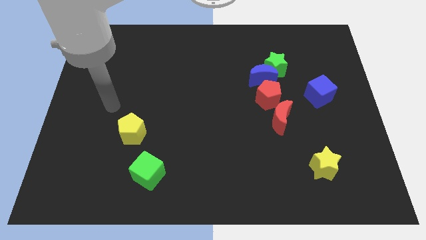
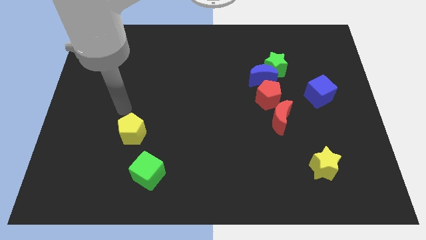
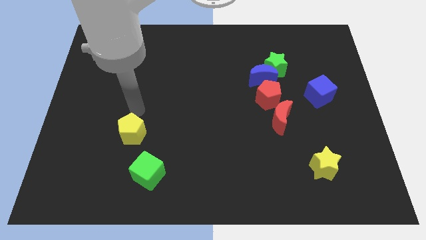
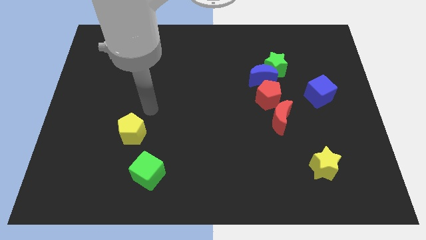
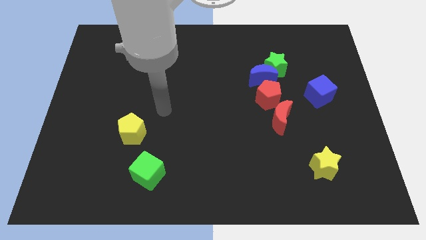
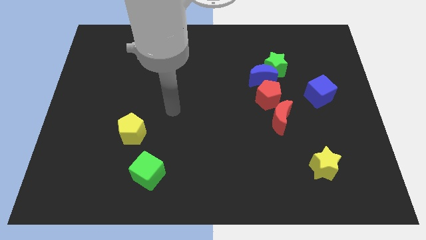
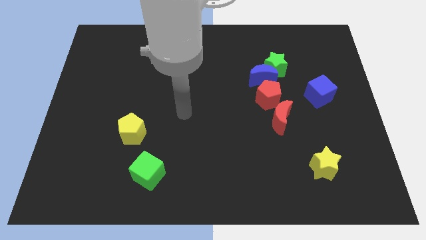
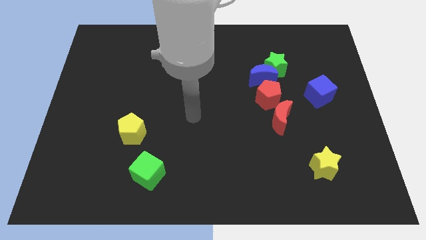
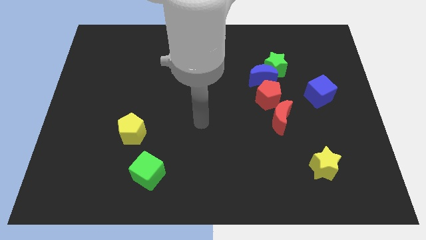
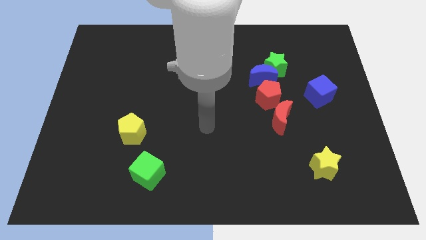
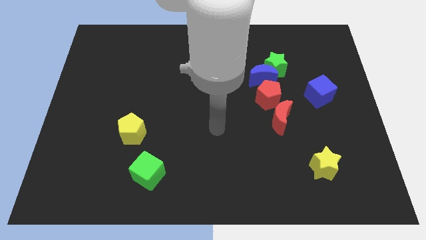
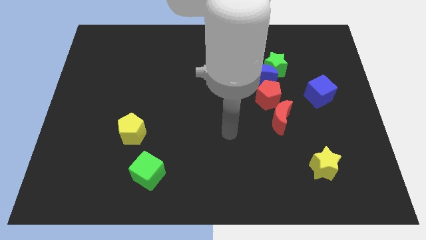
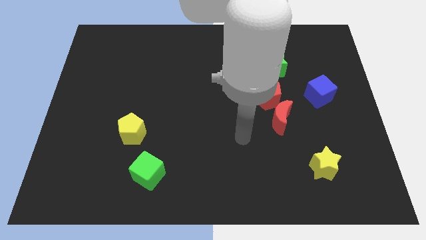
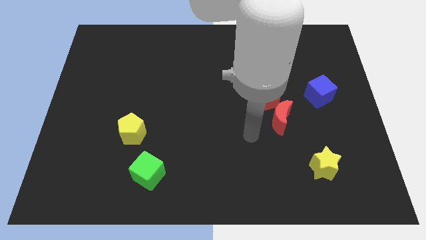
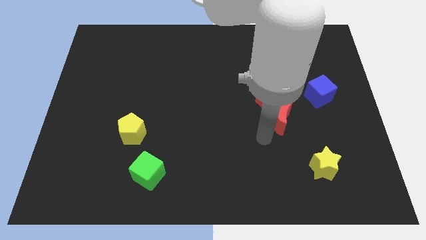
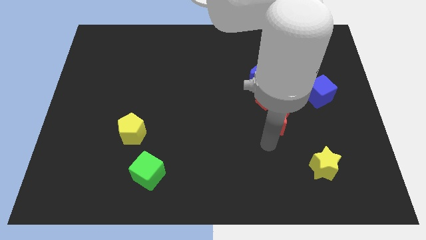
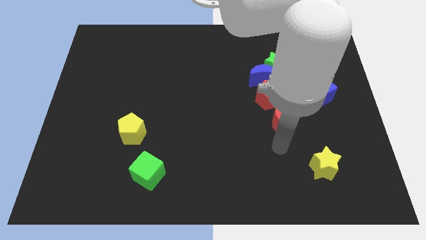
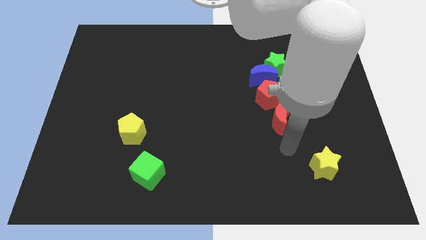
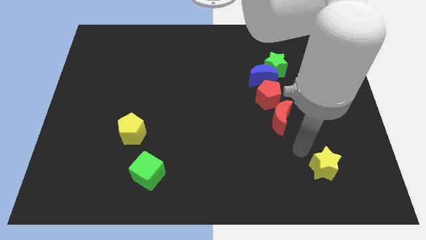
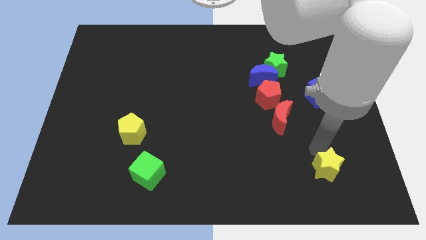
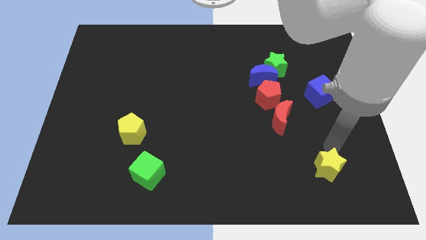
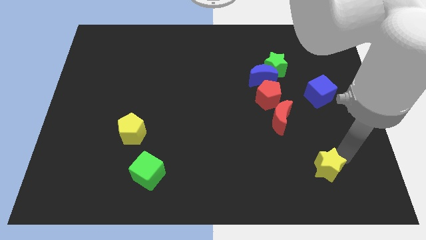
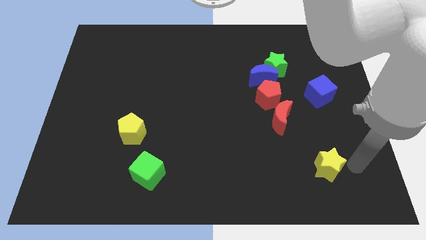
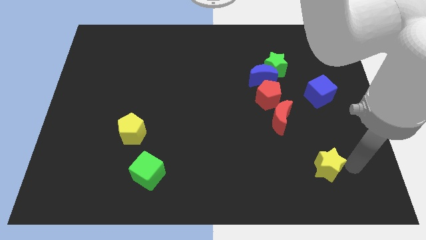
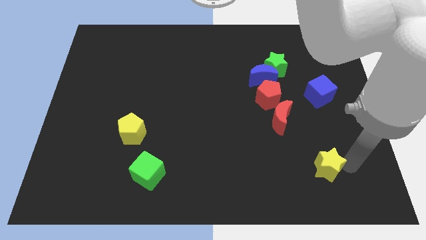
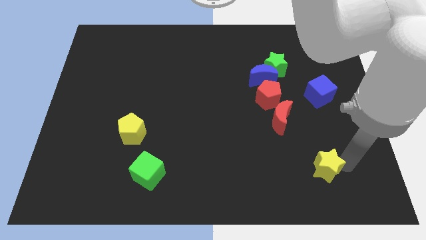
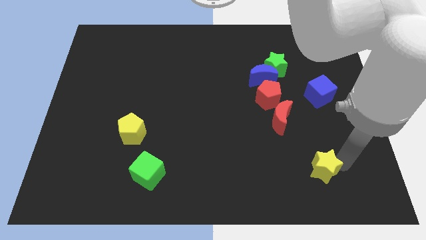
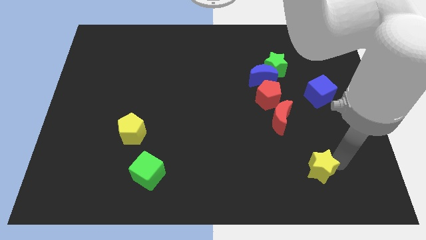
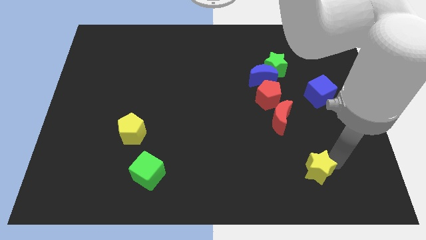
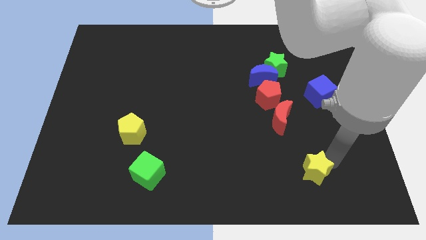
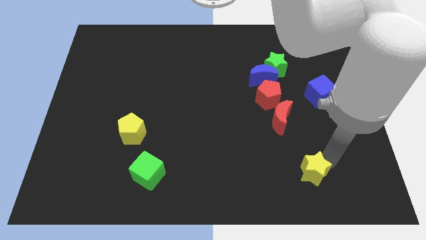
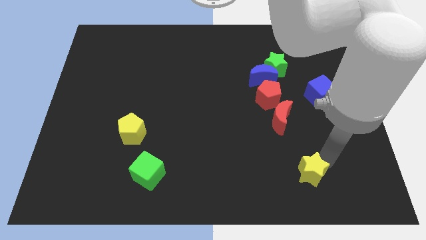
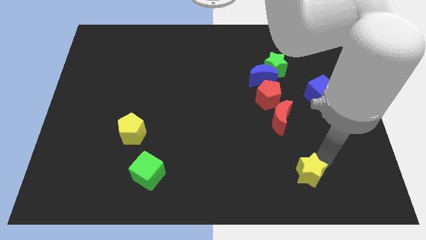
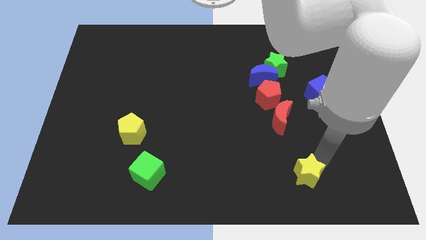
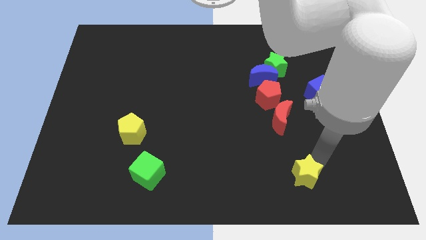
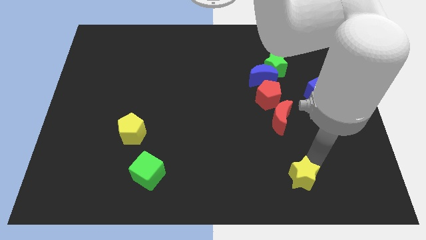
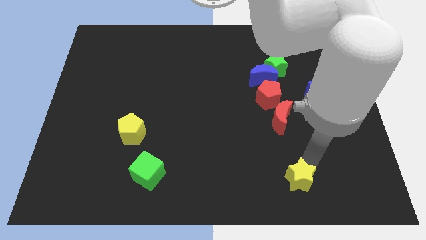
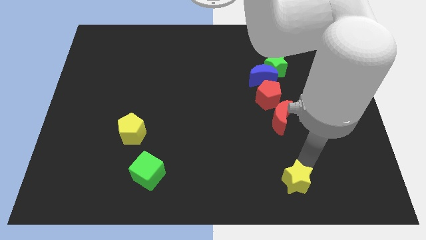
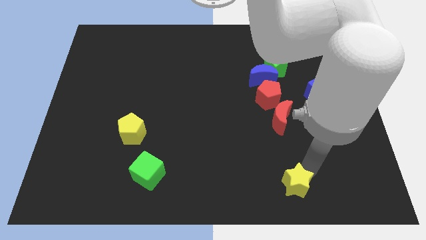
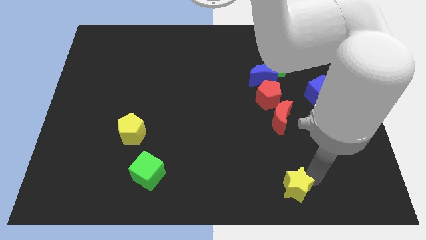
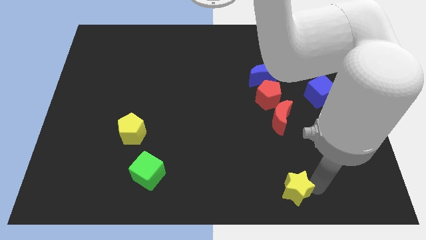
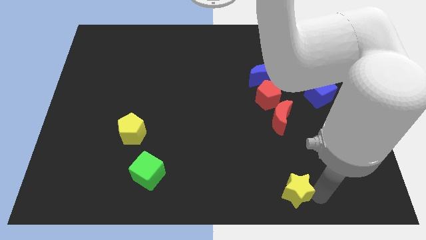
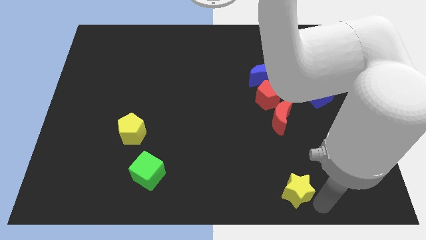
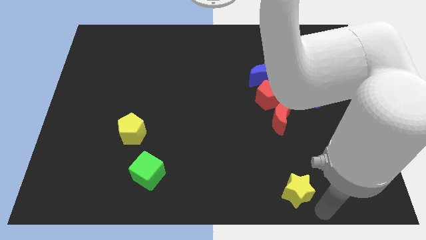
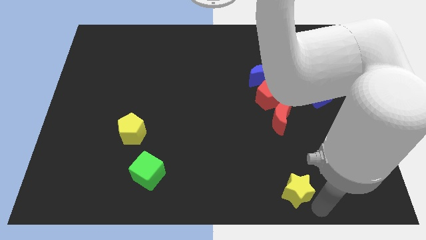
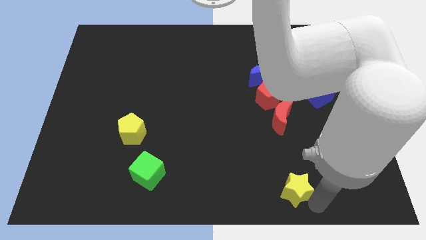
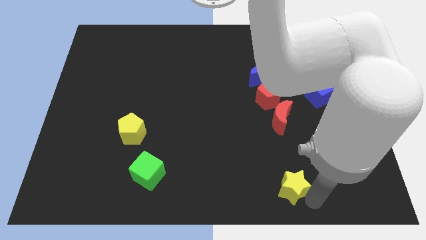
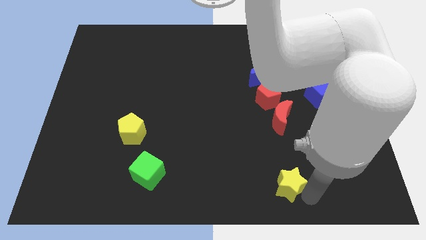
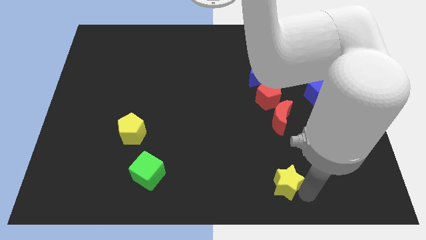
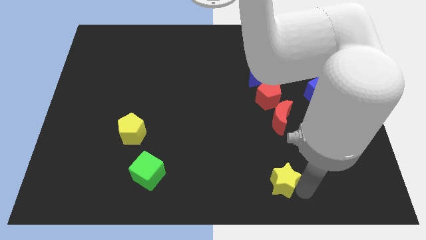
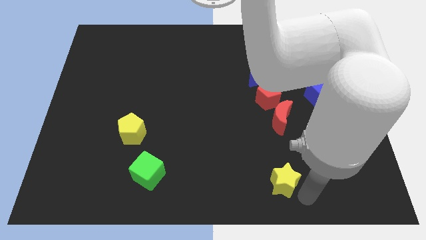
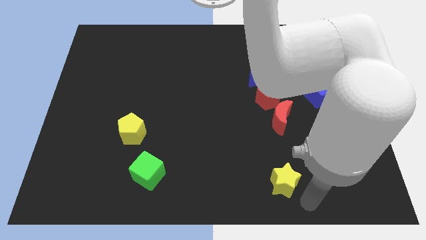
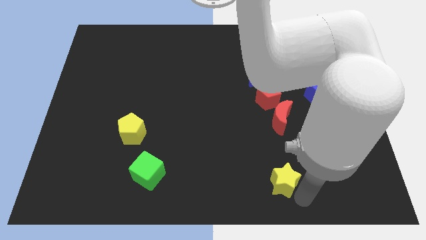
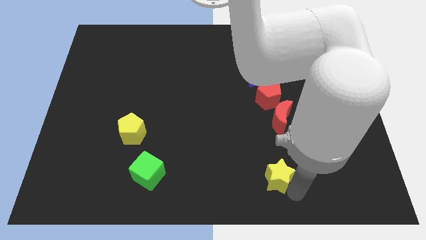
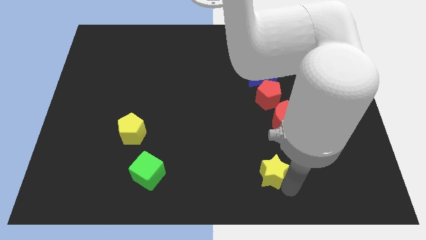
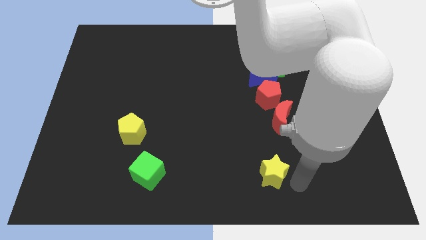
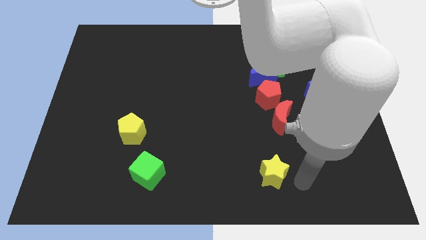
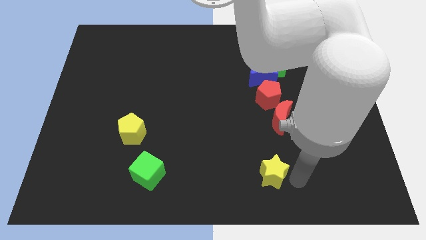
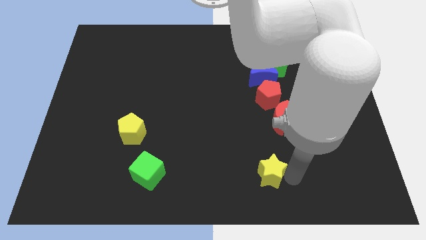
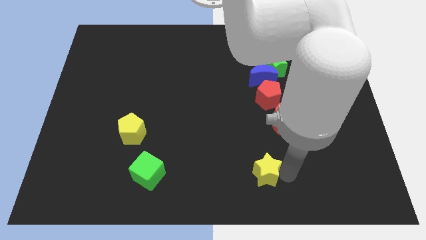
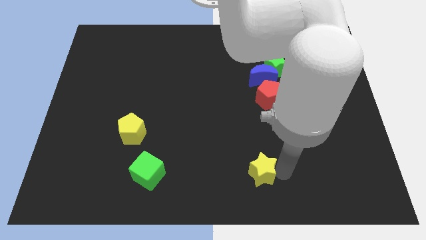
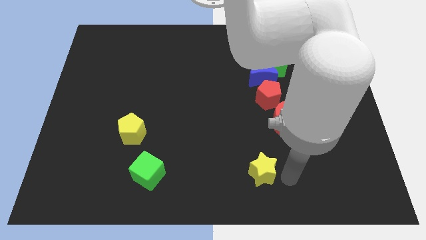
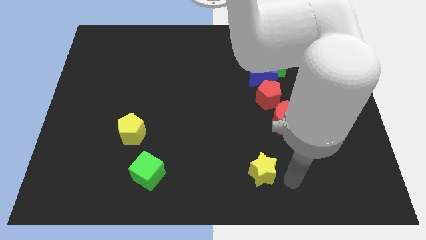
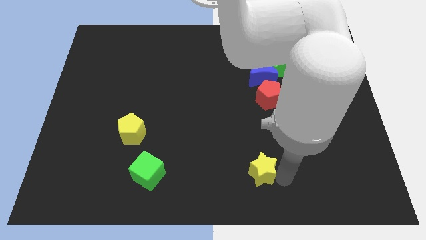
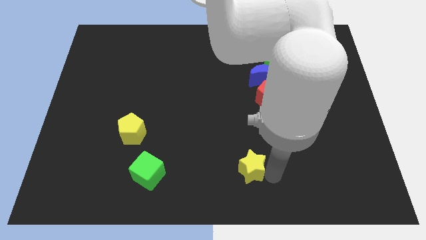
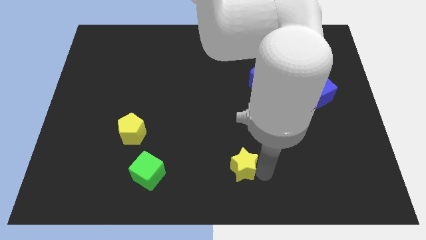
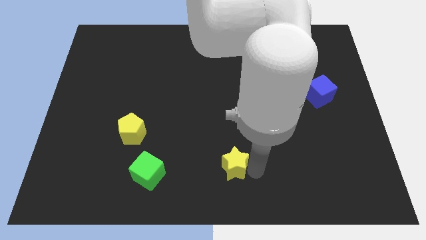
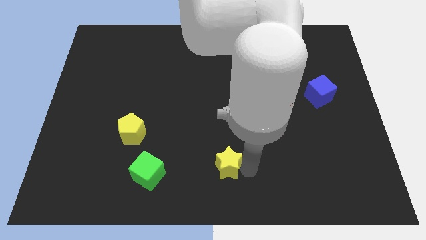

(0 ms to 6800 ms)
push the yellow star left

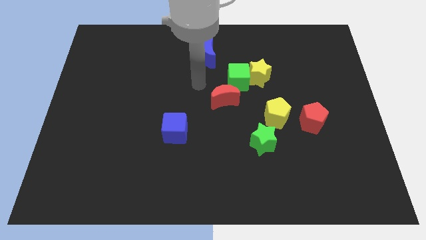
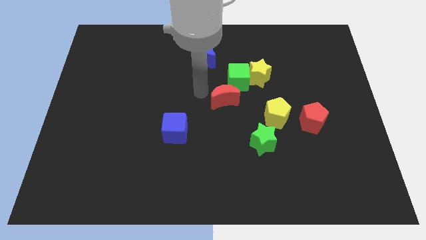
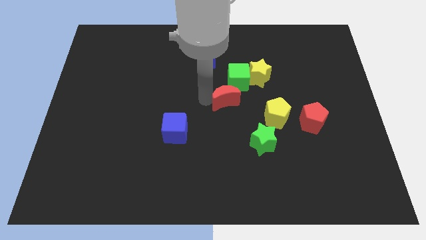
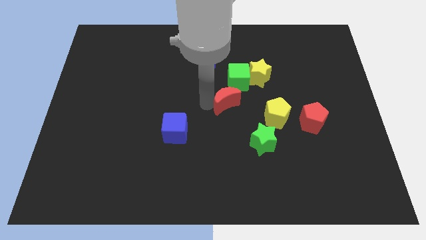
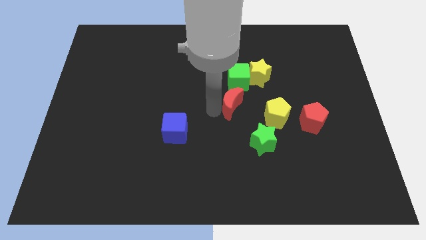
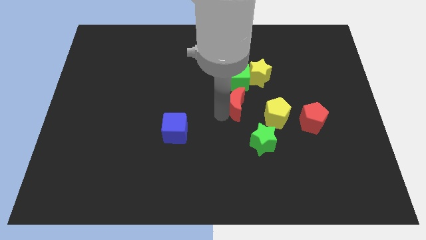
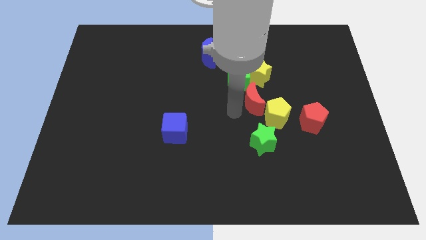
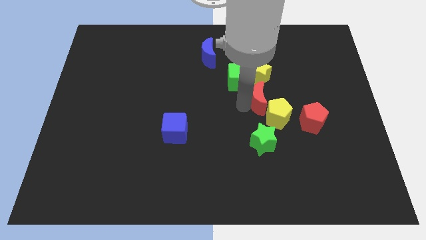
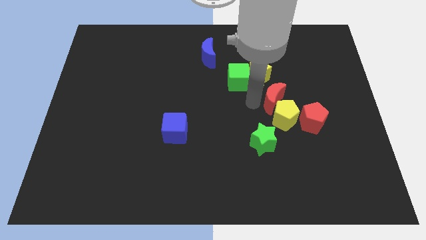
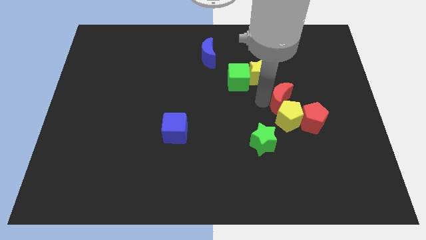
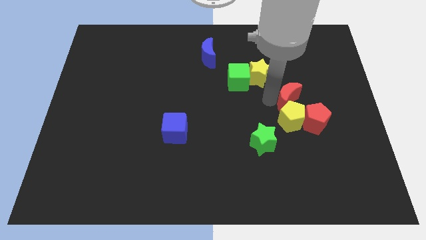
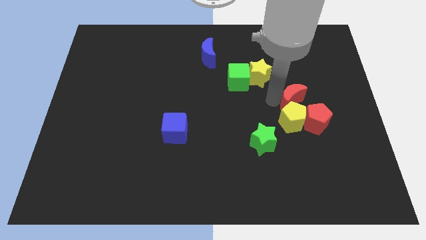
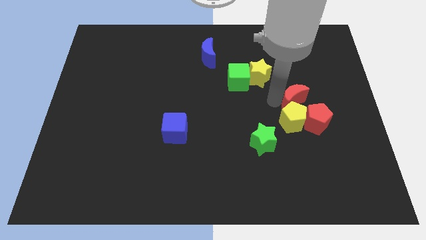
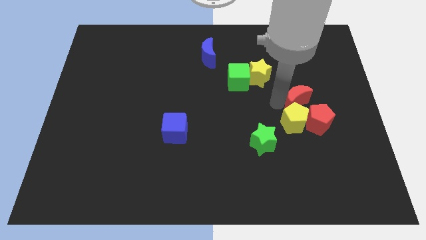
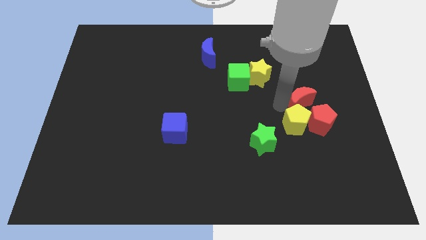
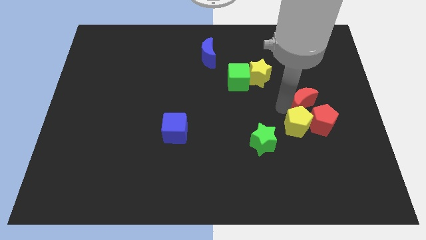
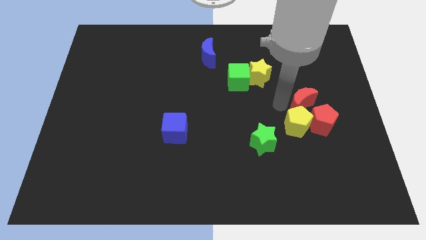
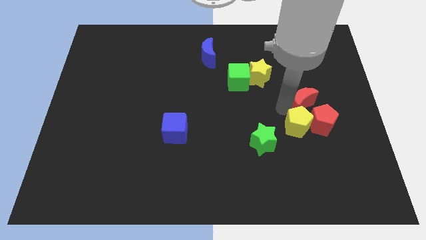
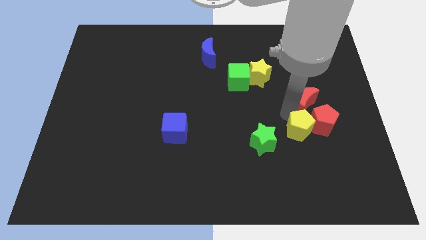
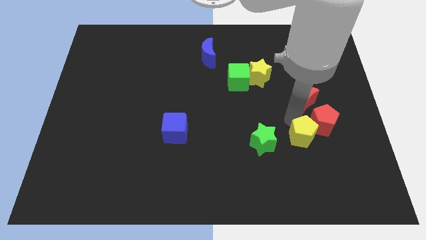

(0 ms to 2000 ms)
slide the yellow pentagon down and to the right a little bit
